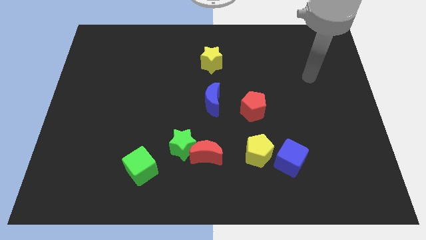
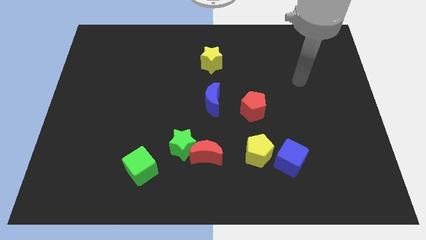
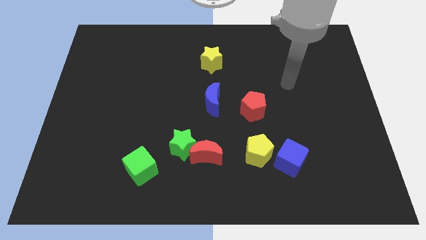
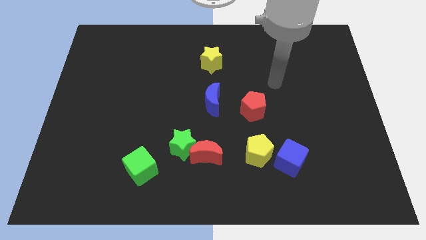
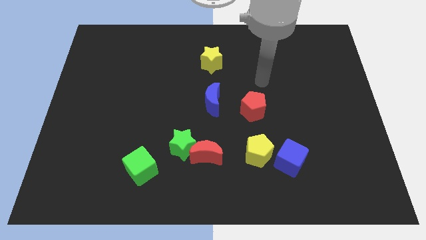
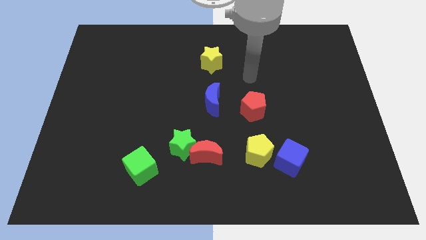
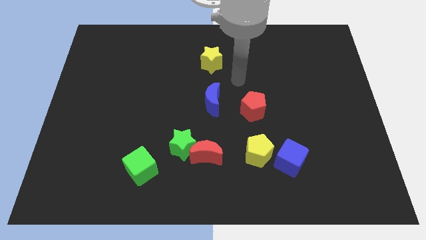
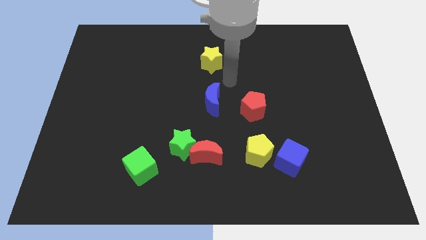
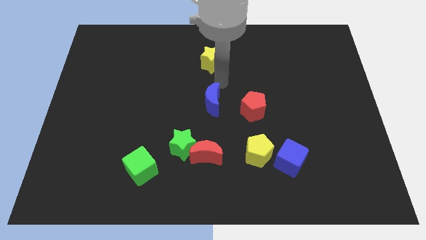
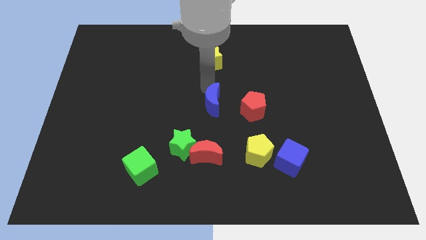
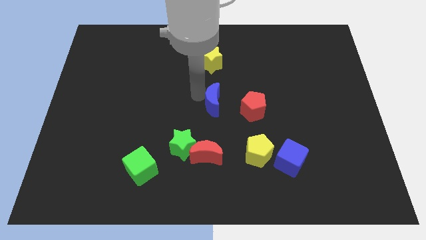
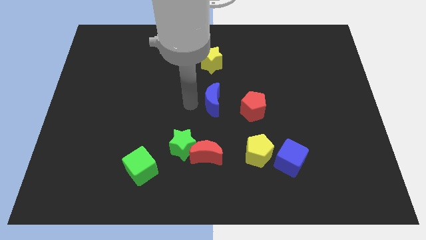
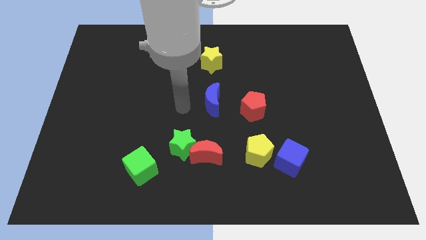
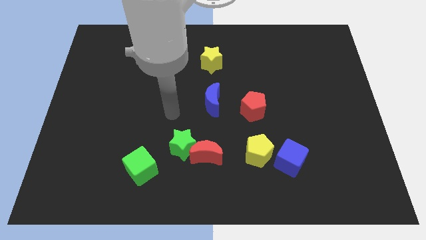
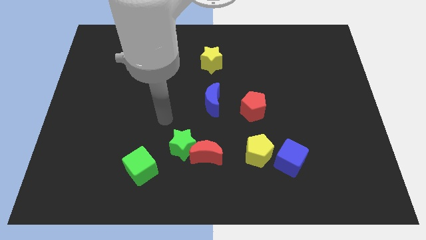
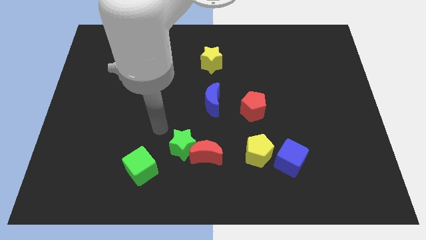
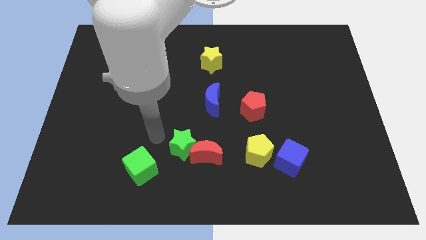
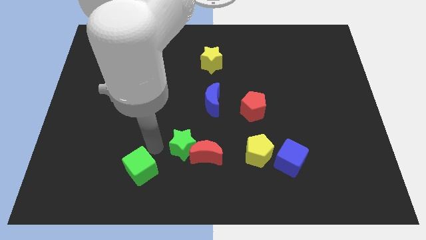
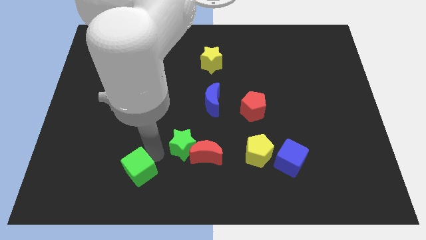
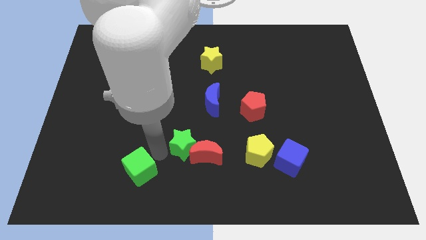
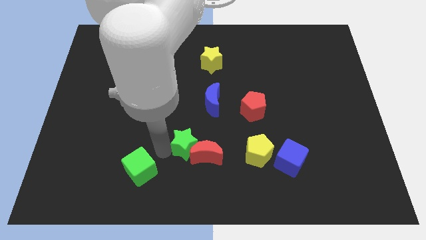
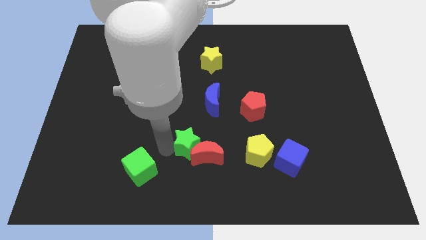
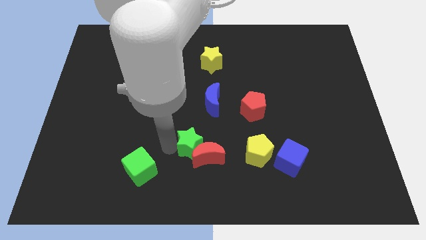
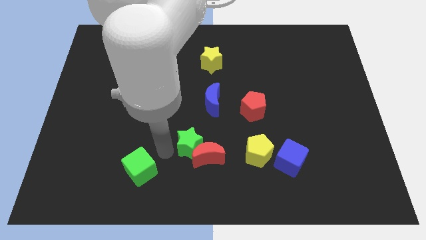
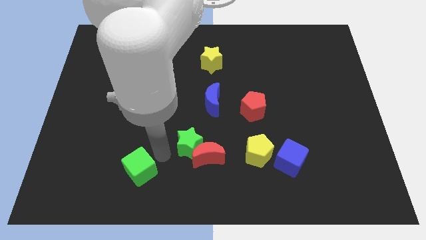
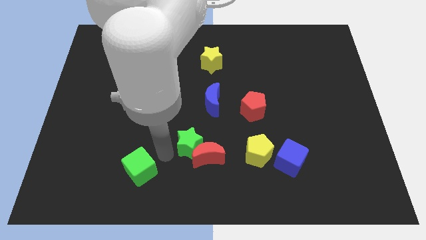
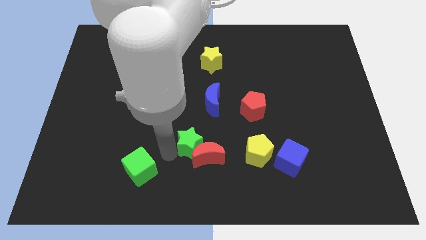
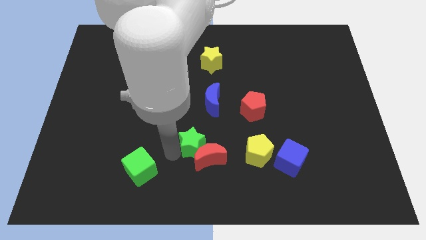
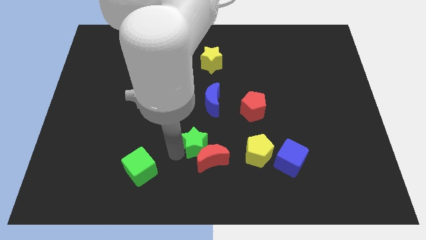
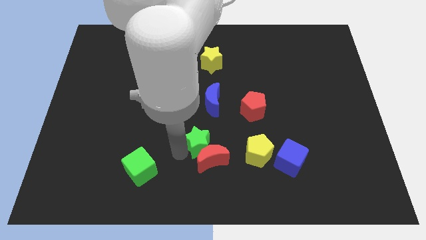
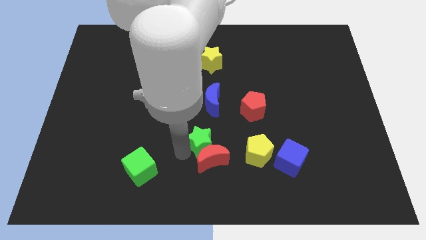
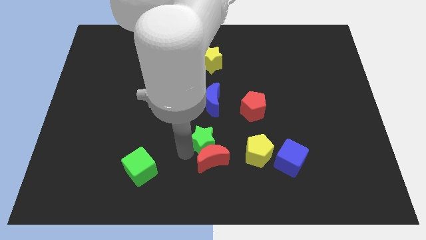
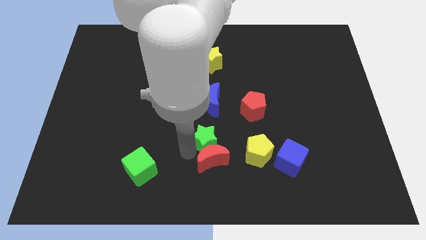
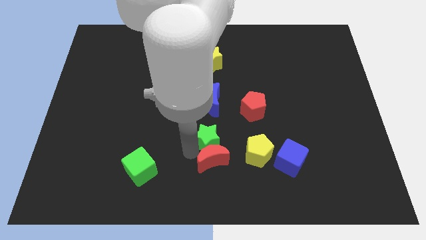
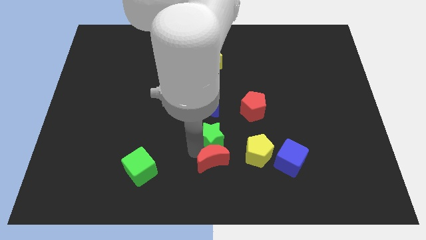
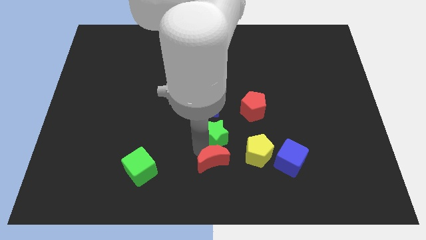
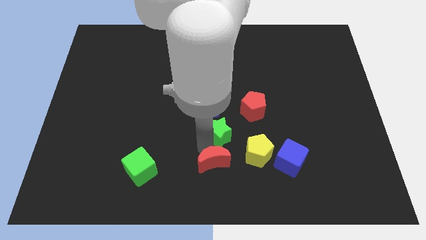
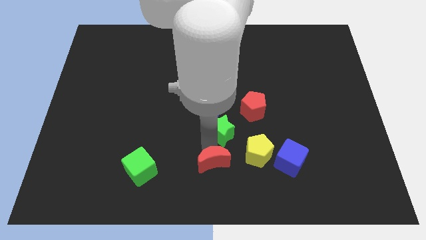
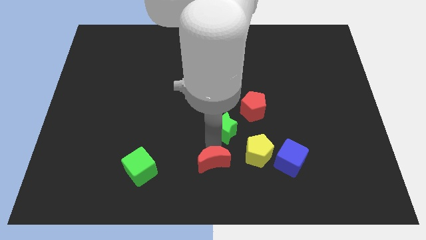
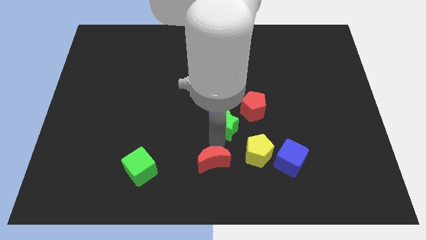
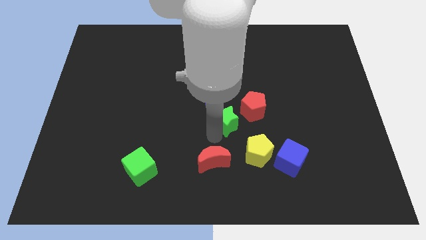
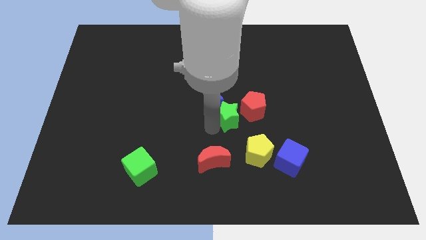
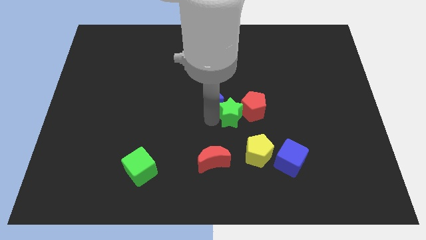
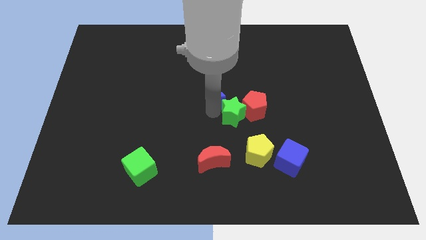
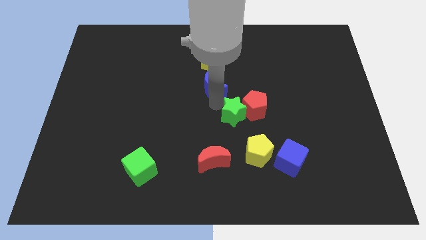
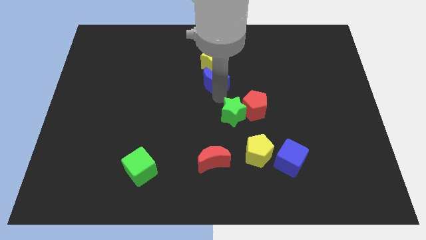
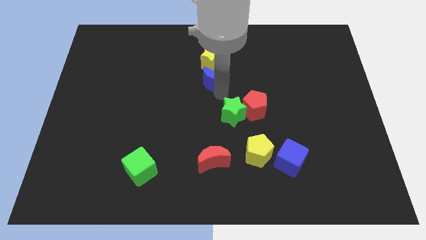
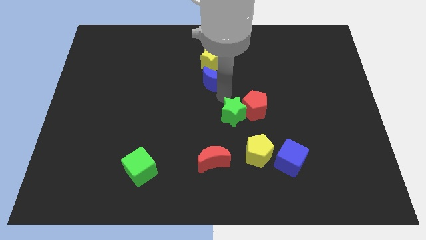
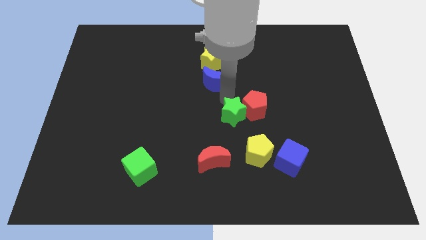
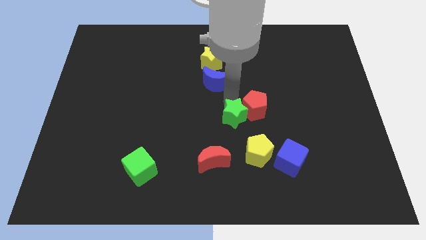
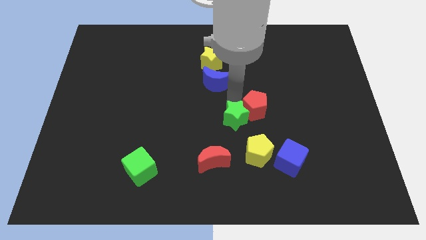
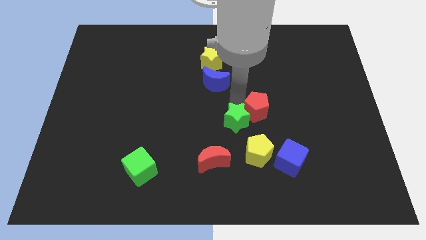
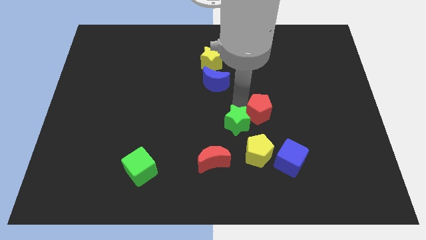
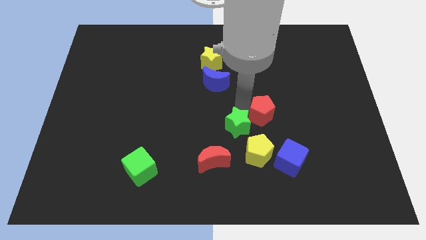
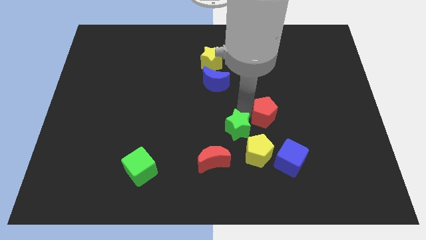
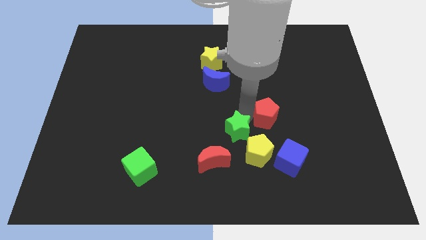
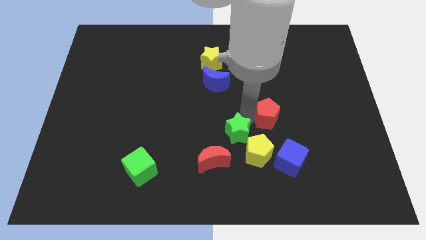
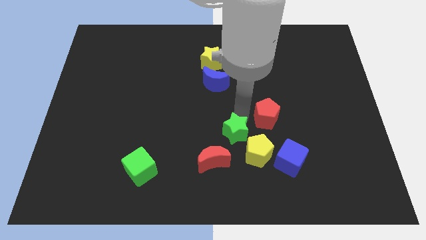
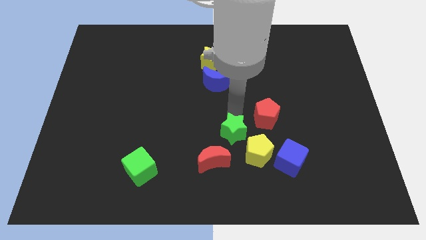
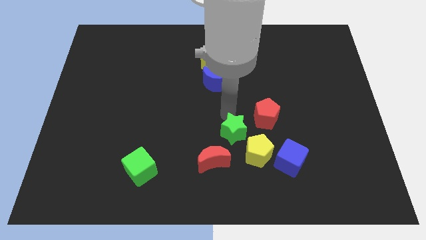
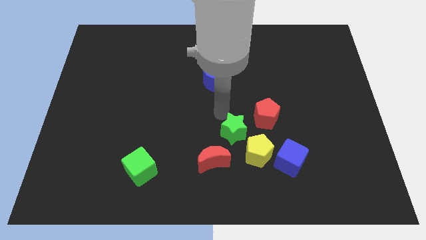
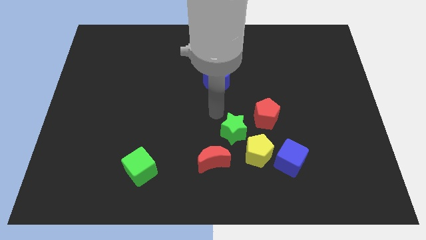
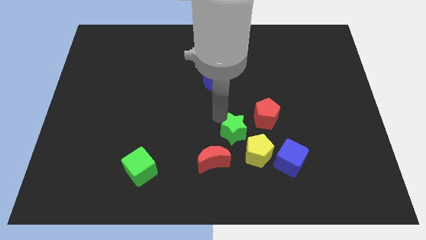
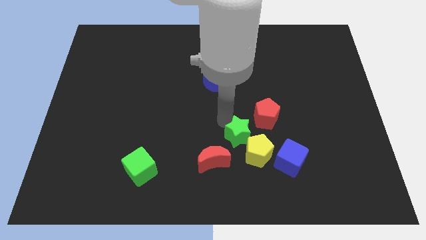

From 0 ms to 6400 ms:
push the green star close to the yellow pentagon

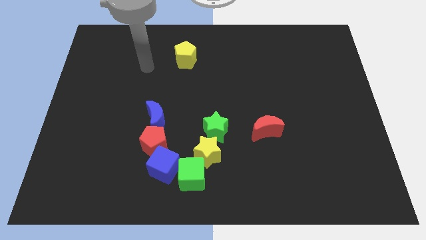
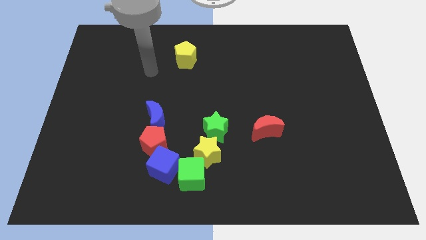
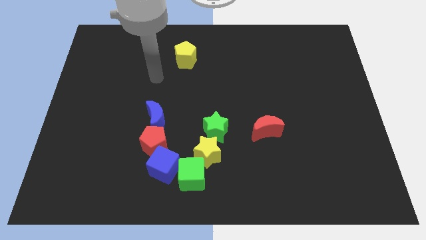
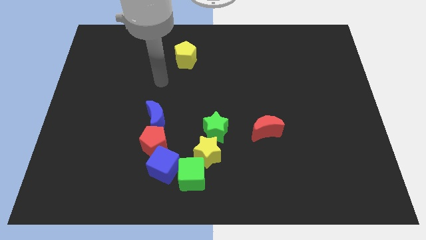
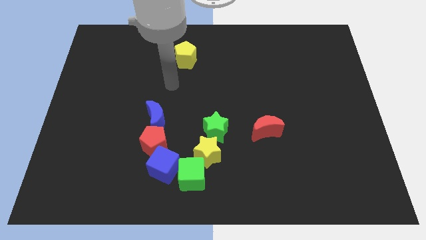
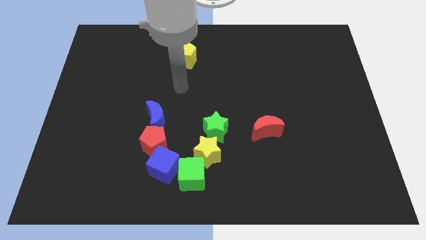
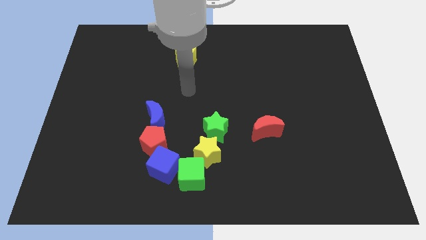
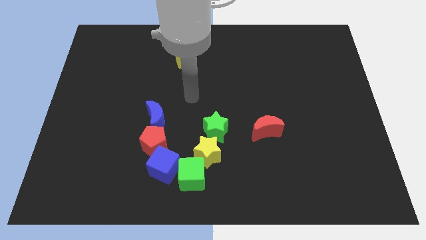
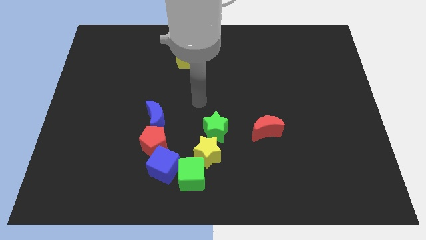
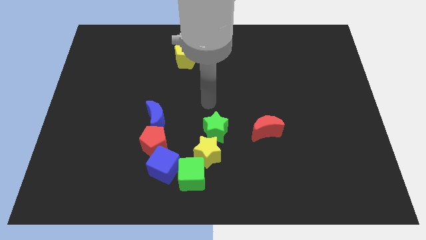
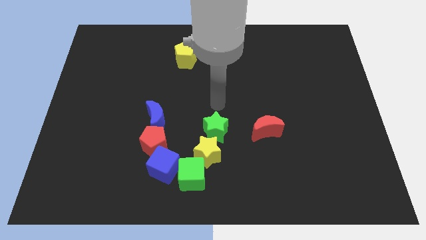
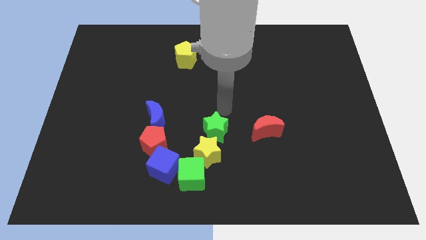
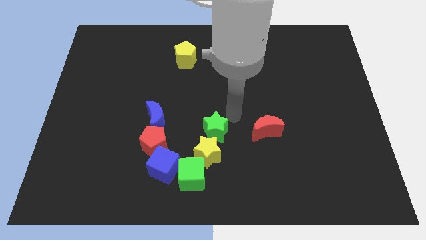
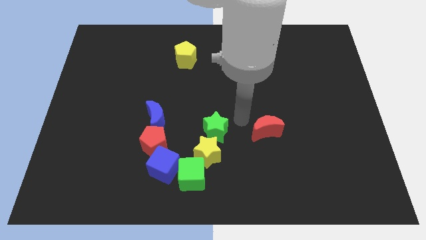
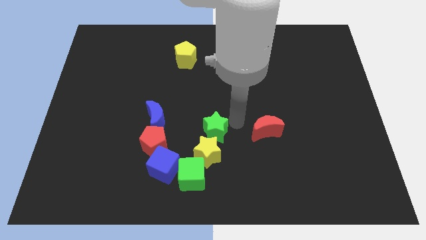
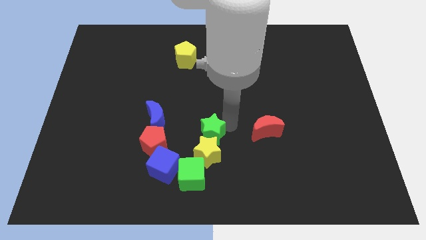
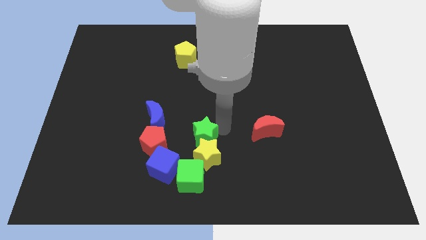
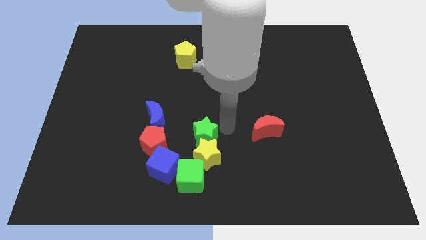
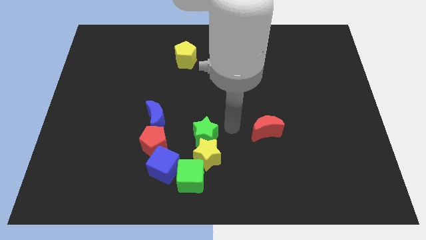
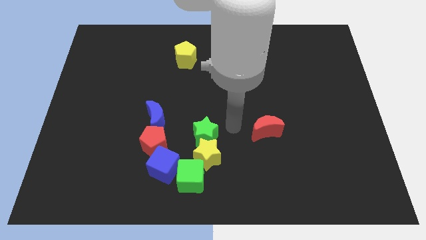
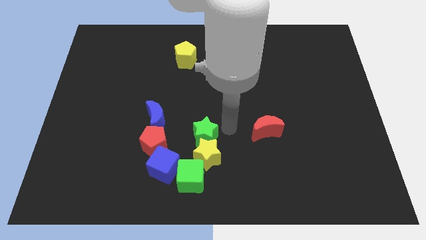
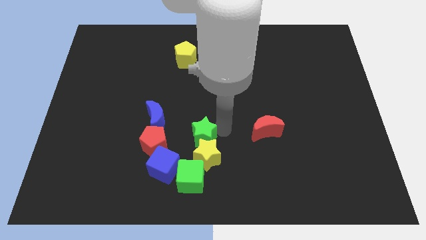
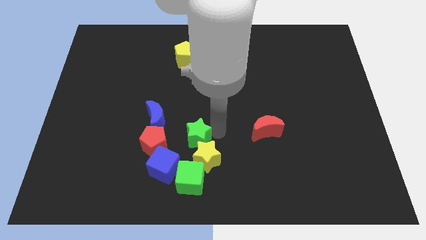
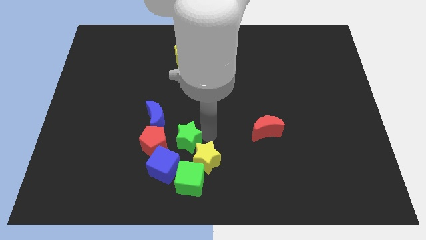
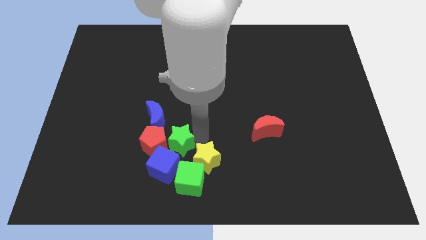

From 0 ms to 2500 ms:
put the green star to the red pentagon
